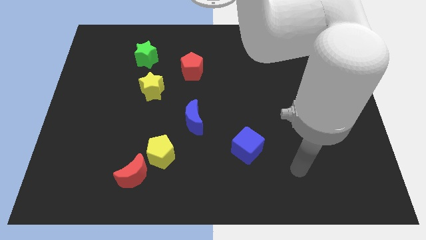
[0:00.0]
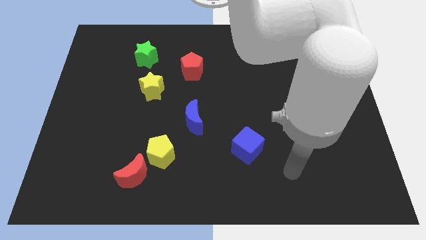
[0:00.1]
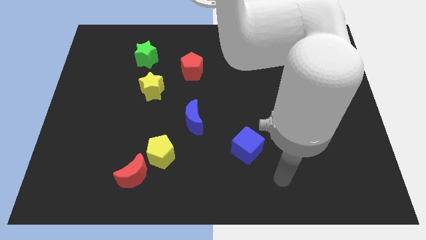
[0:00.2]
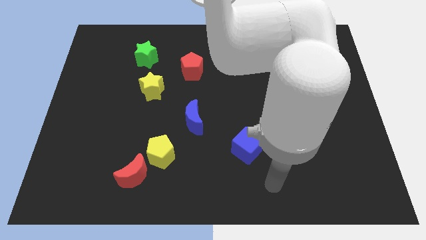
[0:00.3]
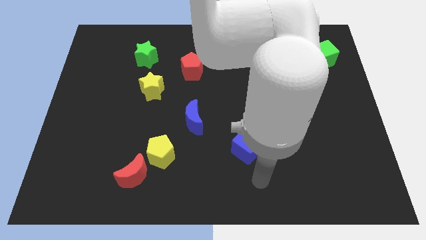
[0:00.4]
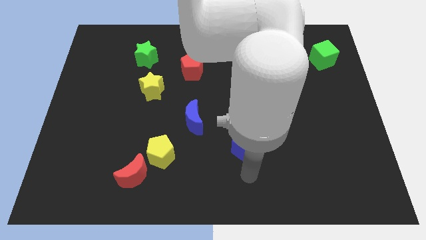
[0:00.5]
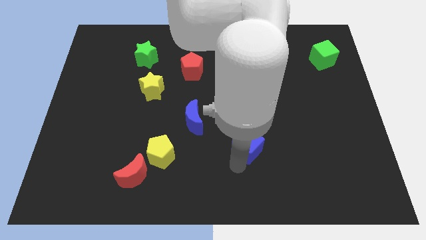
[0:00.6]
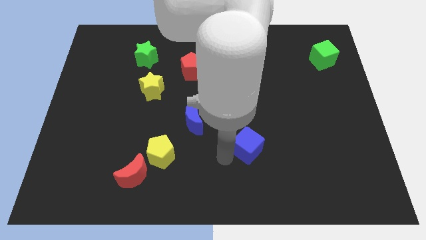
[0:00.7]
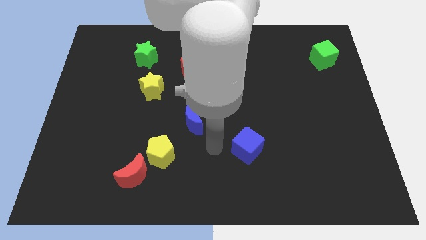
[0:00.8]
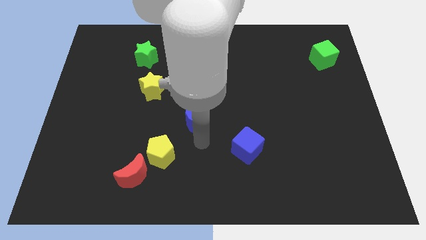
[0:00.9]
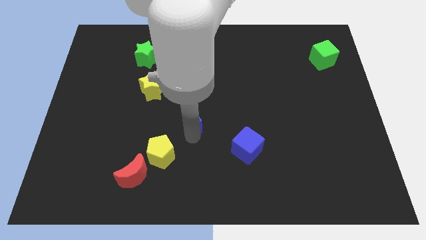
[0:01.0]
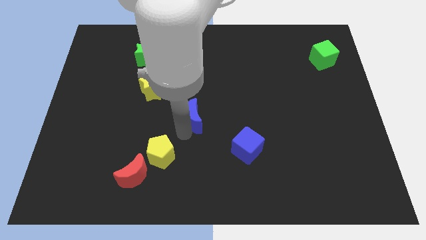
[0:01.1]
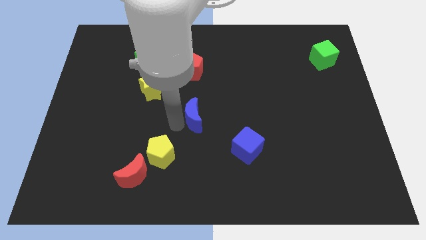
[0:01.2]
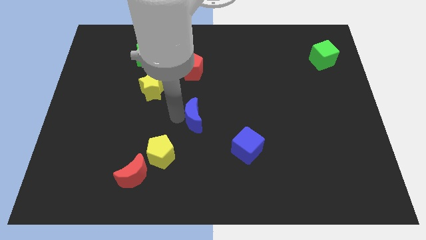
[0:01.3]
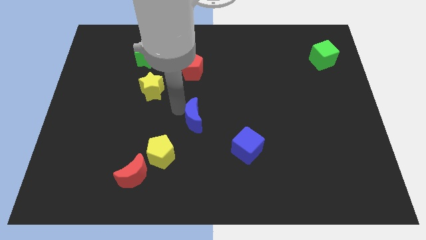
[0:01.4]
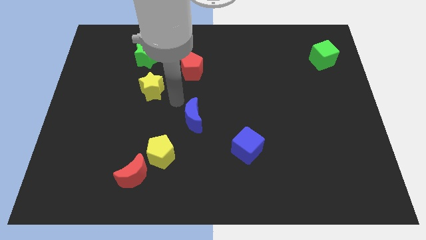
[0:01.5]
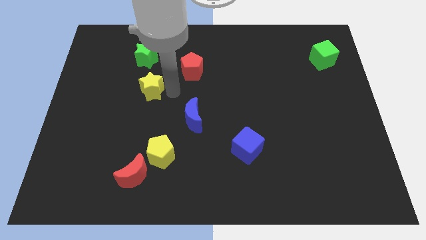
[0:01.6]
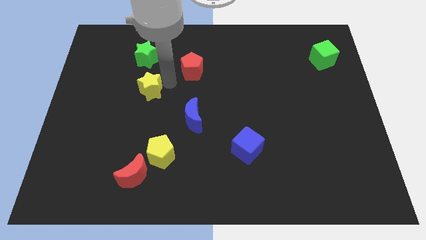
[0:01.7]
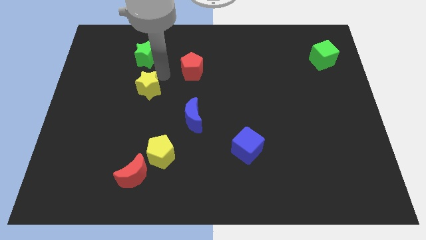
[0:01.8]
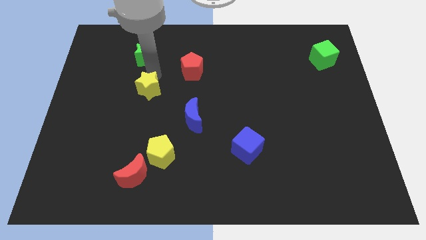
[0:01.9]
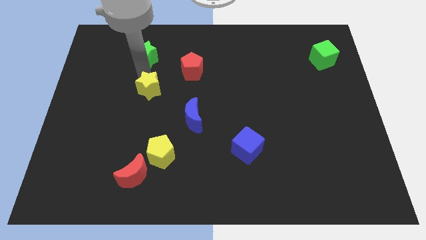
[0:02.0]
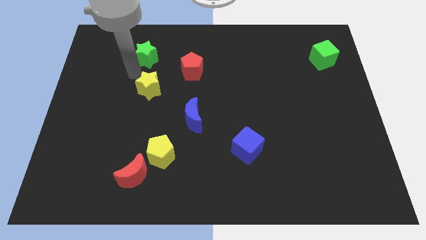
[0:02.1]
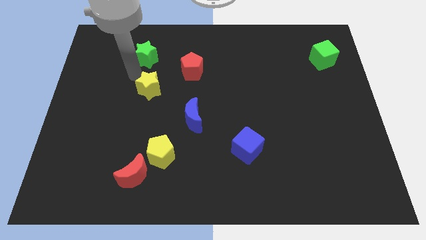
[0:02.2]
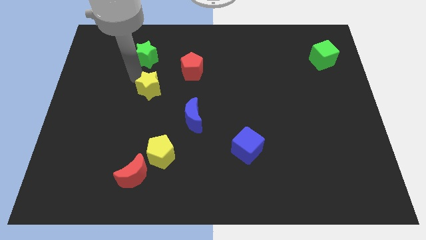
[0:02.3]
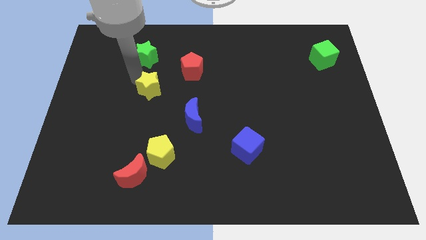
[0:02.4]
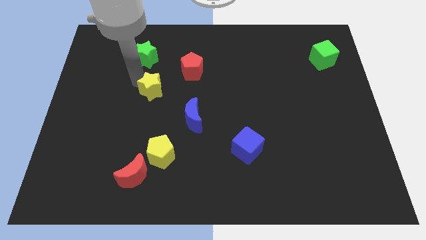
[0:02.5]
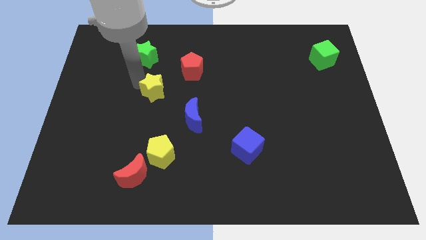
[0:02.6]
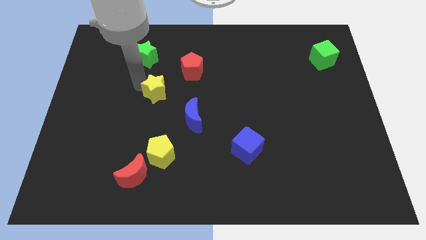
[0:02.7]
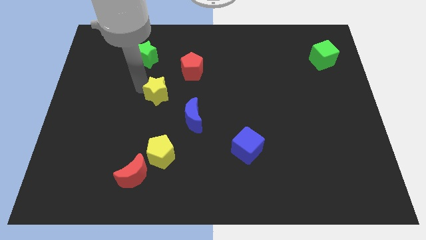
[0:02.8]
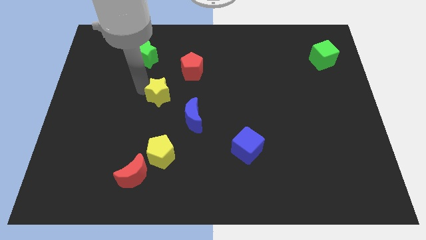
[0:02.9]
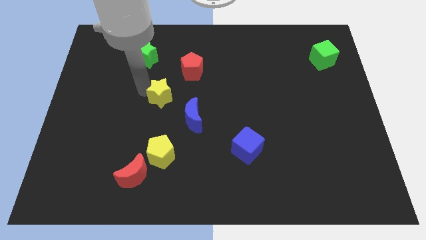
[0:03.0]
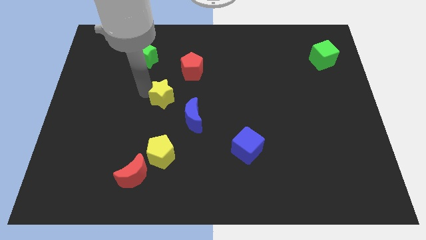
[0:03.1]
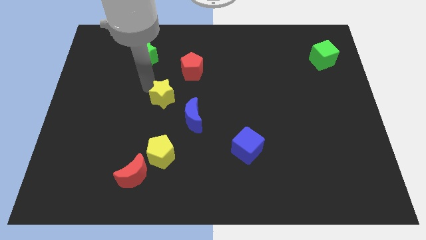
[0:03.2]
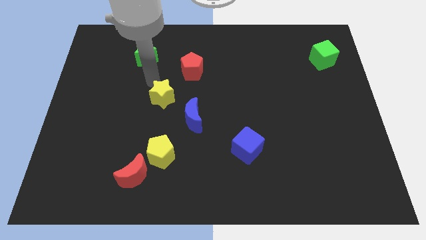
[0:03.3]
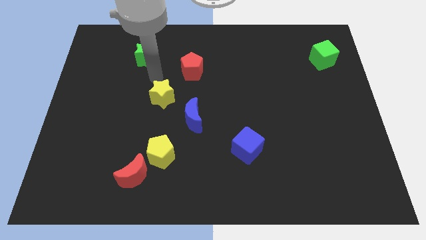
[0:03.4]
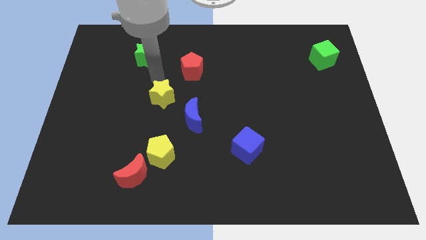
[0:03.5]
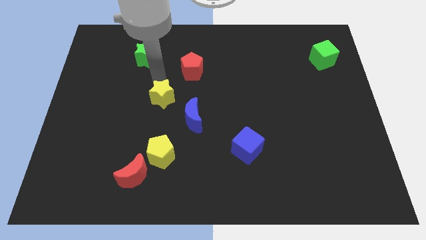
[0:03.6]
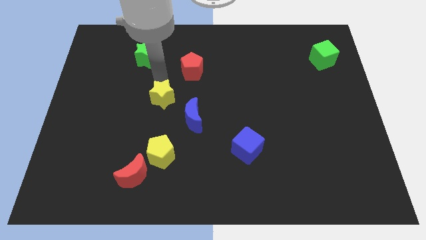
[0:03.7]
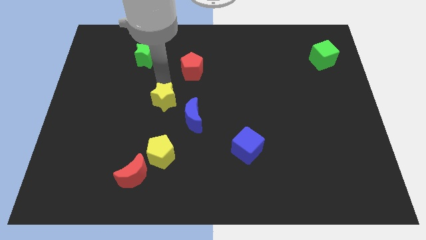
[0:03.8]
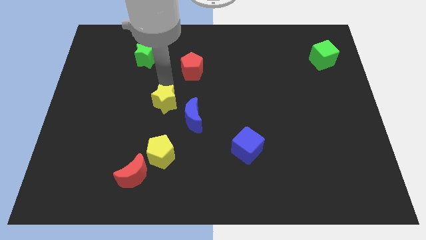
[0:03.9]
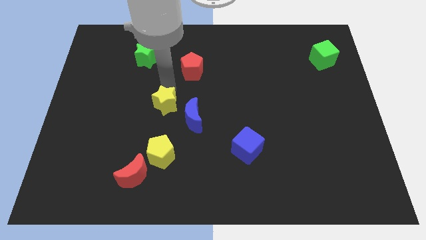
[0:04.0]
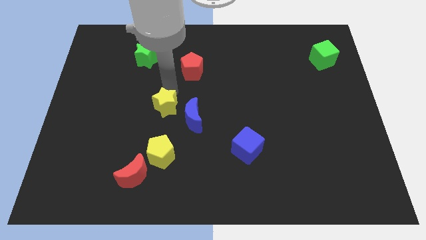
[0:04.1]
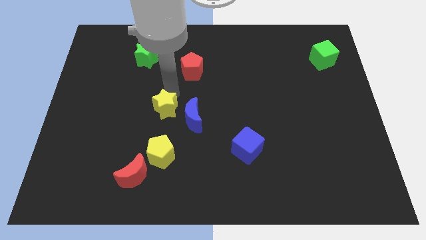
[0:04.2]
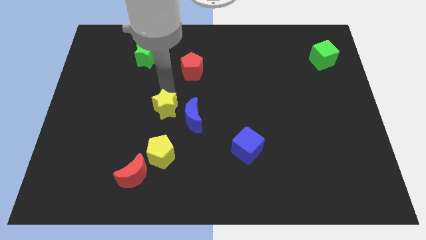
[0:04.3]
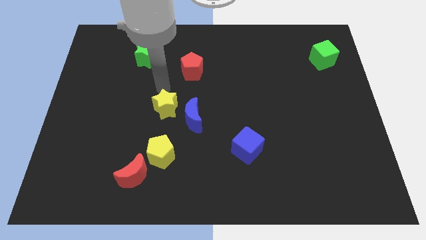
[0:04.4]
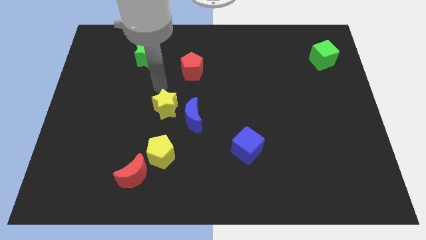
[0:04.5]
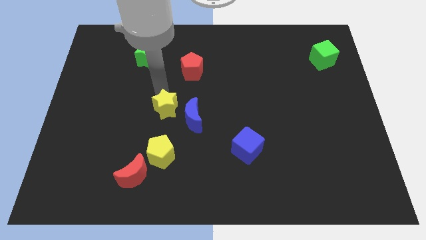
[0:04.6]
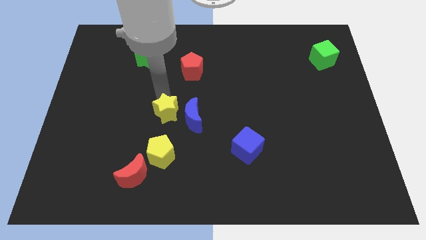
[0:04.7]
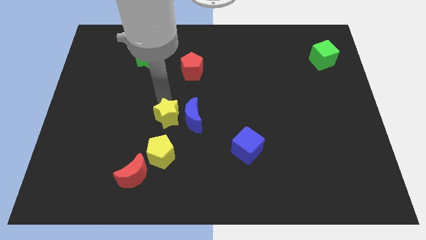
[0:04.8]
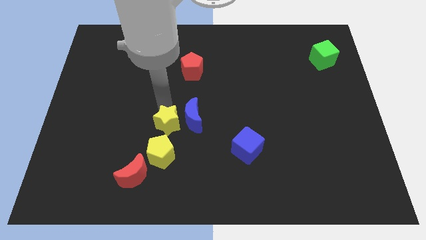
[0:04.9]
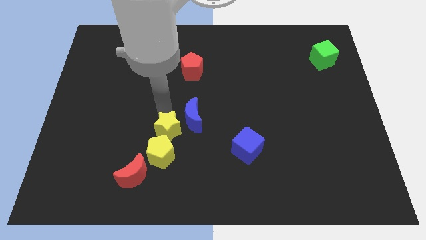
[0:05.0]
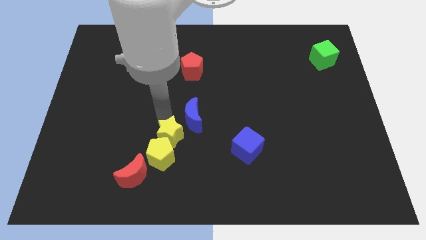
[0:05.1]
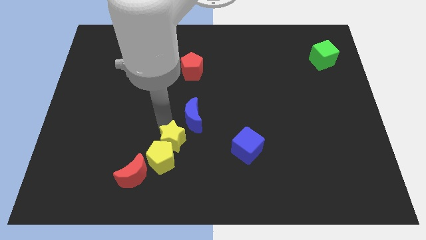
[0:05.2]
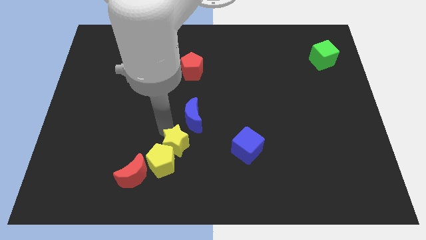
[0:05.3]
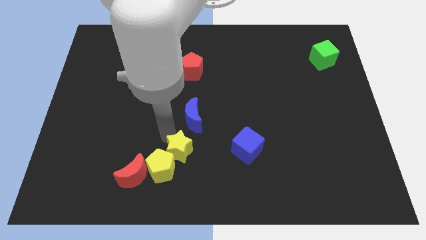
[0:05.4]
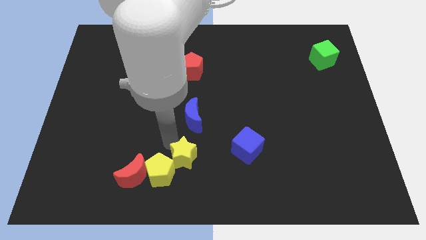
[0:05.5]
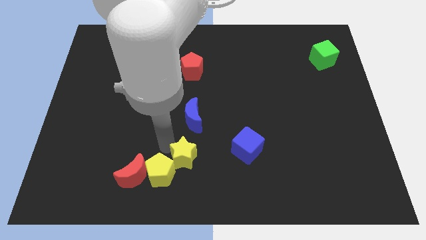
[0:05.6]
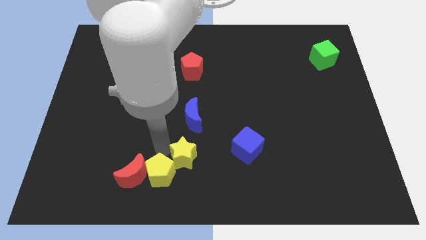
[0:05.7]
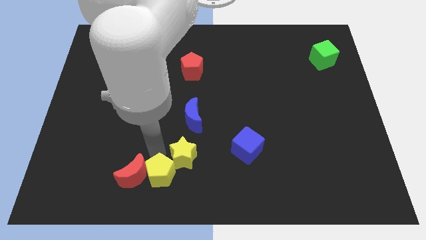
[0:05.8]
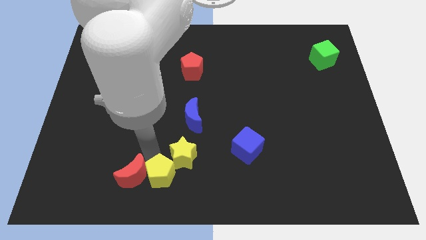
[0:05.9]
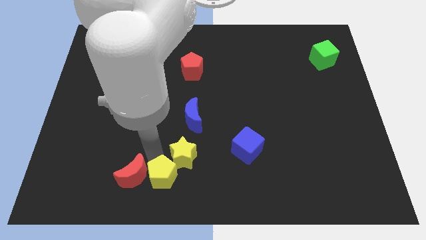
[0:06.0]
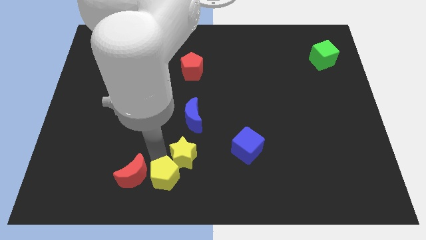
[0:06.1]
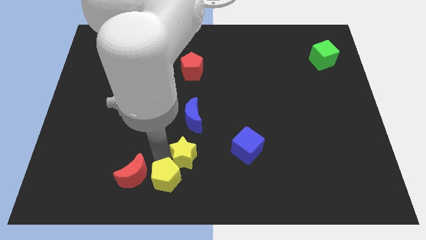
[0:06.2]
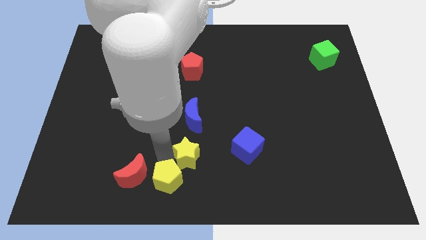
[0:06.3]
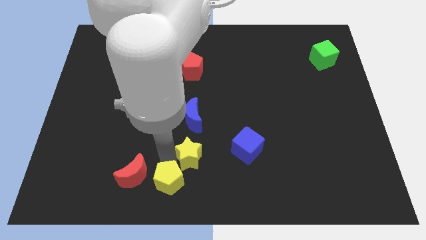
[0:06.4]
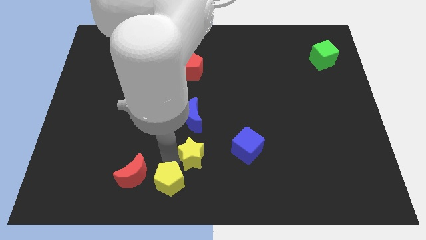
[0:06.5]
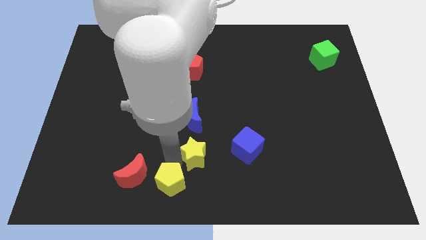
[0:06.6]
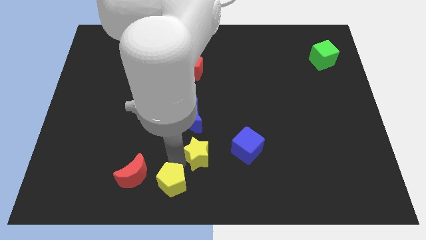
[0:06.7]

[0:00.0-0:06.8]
move the yellow star downwards and then to the right

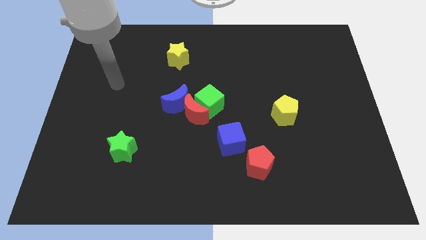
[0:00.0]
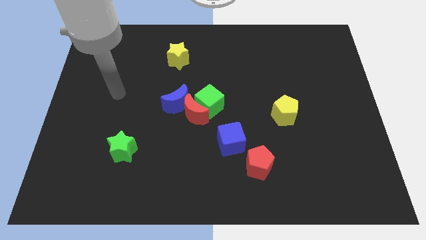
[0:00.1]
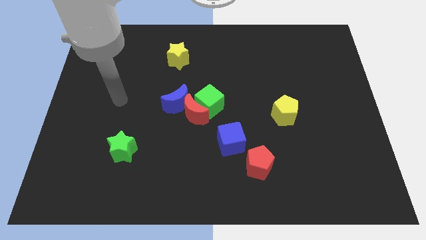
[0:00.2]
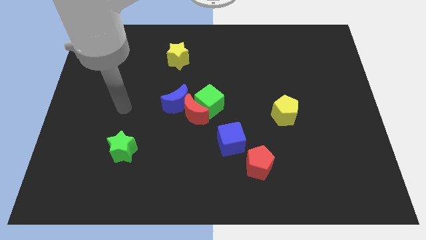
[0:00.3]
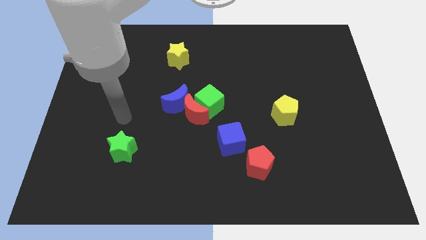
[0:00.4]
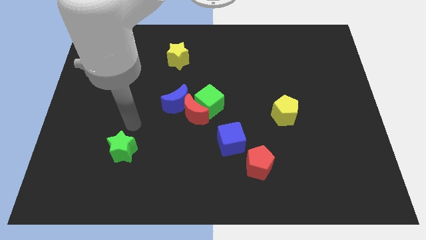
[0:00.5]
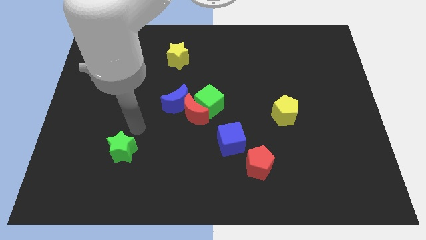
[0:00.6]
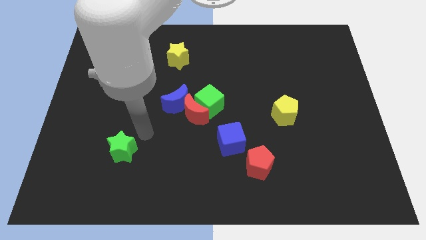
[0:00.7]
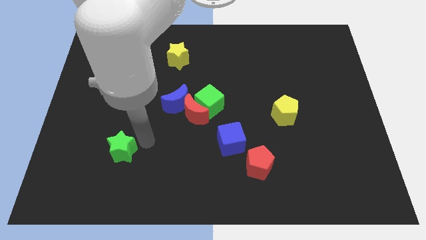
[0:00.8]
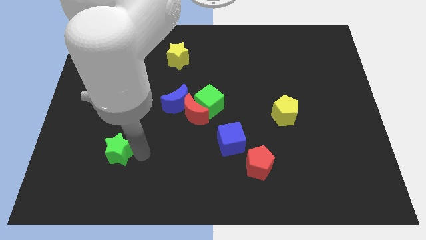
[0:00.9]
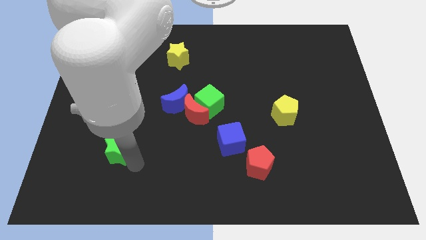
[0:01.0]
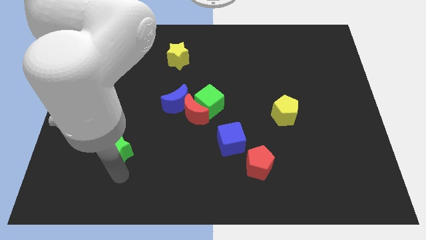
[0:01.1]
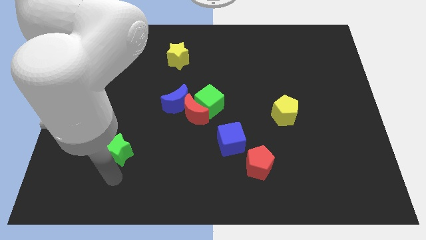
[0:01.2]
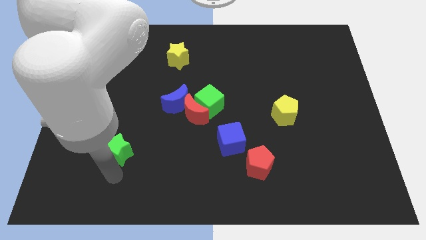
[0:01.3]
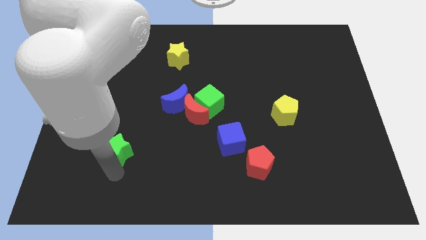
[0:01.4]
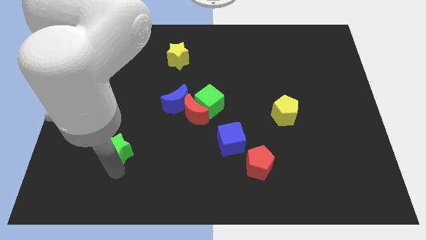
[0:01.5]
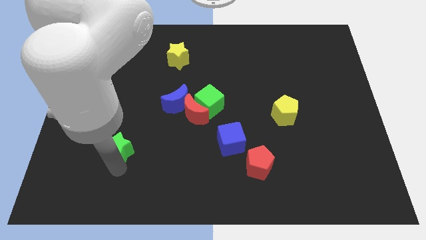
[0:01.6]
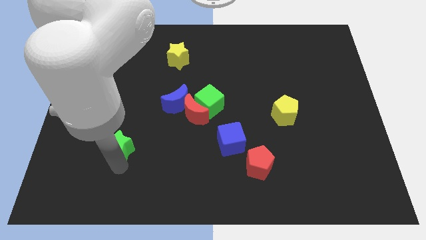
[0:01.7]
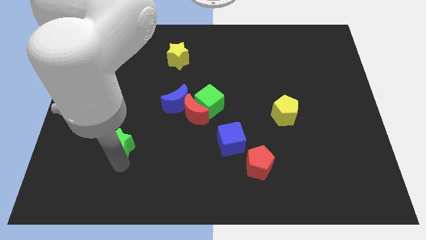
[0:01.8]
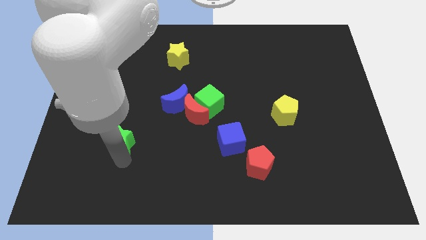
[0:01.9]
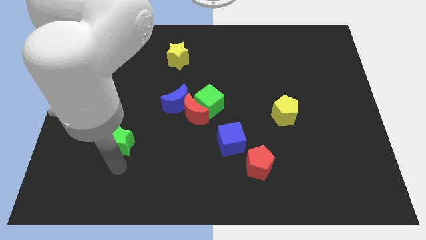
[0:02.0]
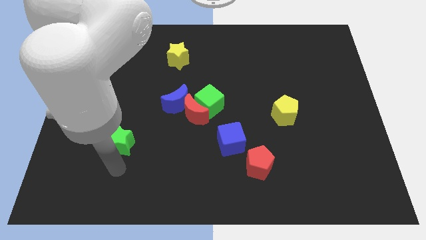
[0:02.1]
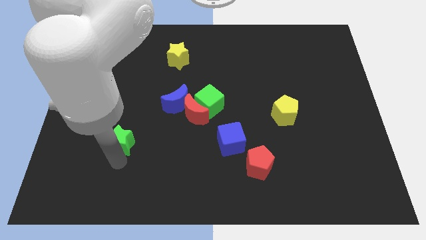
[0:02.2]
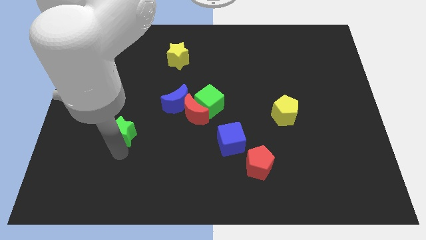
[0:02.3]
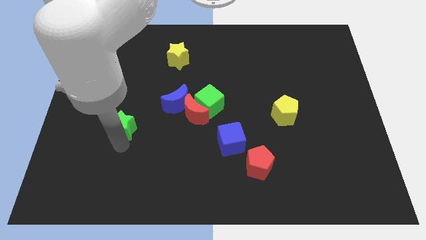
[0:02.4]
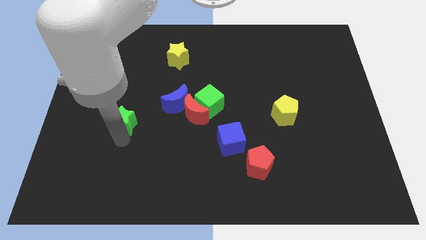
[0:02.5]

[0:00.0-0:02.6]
push the green star up slightly
